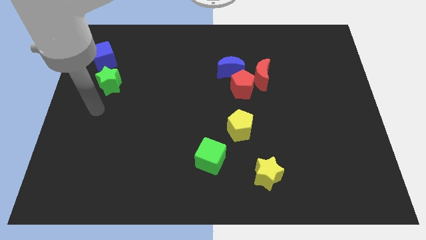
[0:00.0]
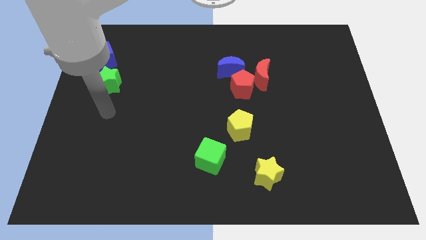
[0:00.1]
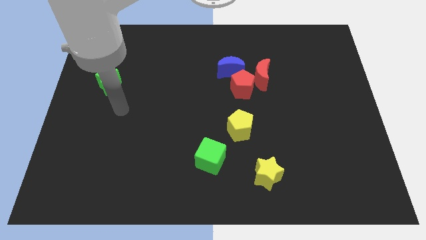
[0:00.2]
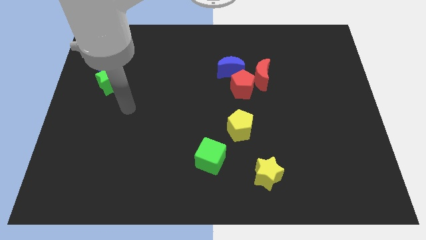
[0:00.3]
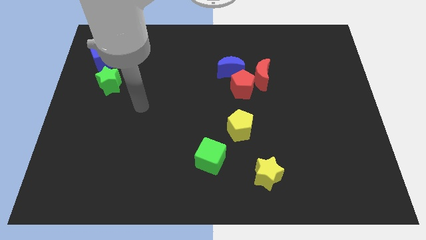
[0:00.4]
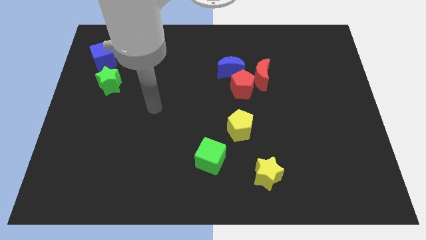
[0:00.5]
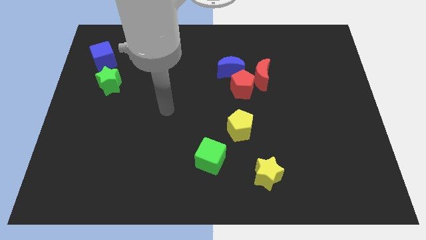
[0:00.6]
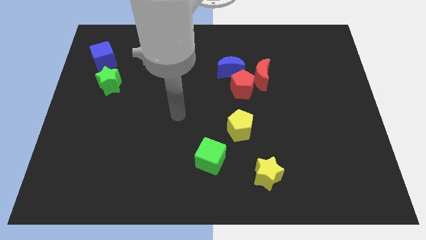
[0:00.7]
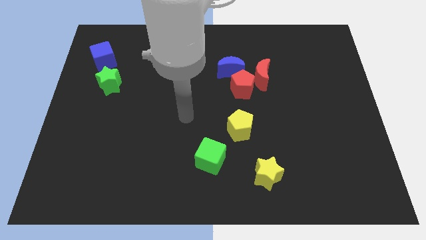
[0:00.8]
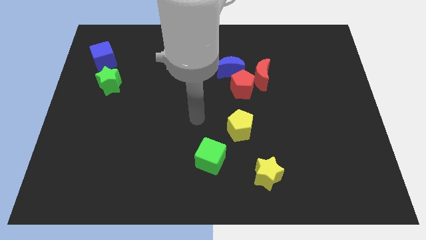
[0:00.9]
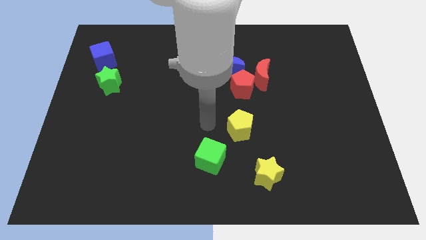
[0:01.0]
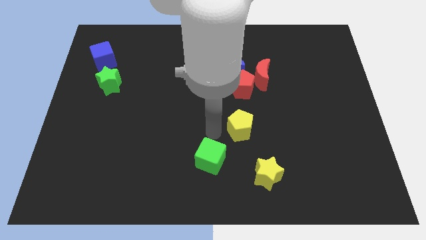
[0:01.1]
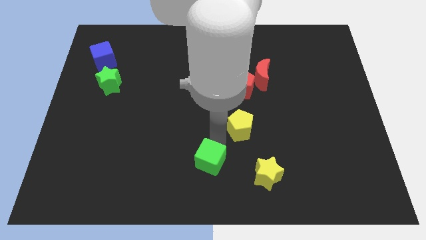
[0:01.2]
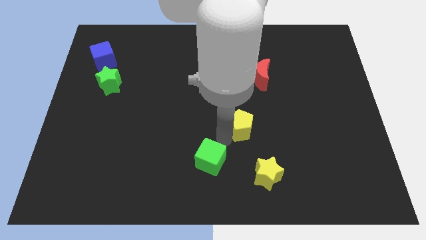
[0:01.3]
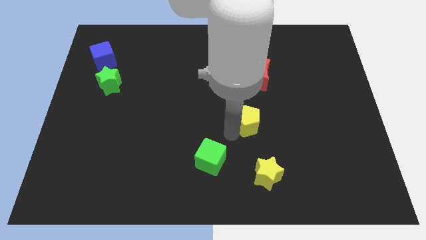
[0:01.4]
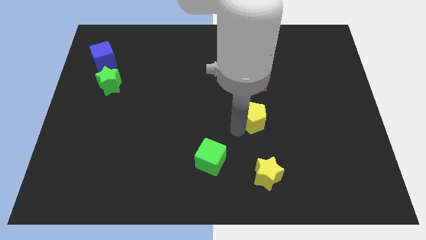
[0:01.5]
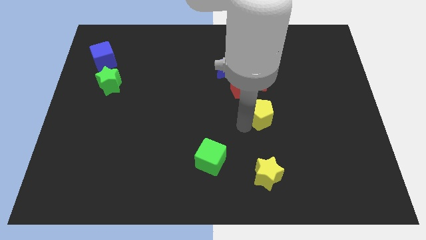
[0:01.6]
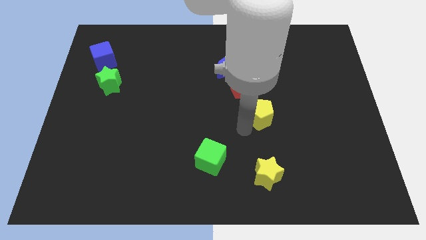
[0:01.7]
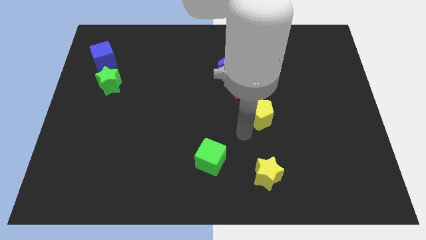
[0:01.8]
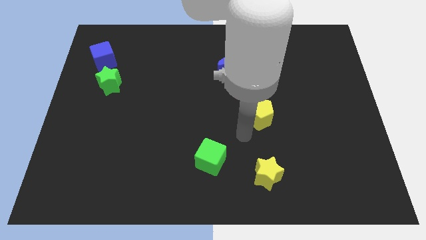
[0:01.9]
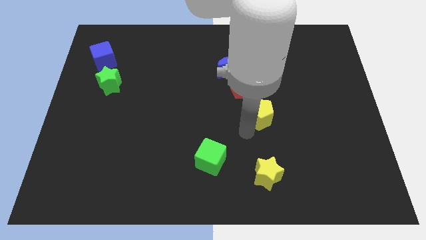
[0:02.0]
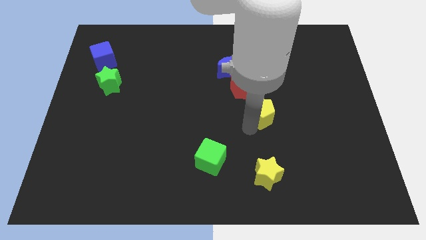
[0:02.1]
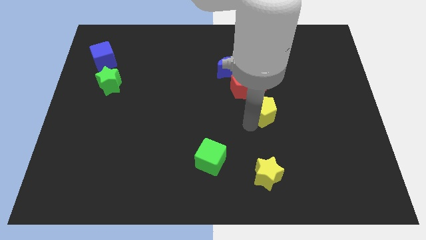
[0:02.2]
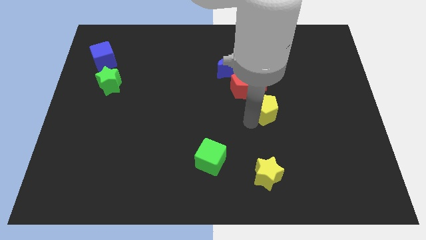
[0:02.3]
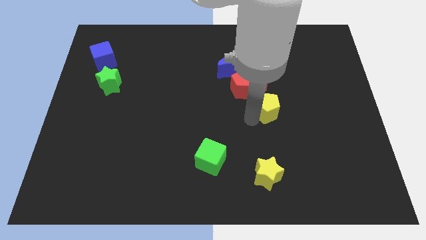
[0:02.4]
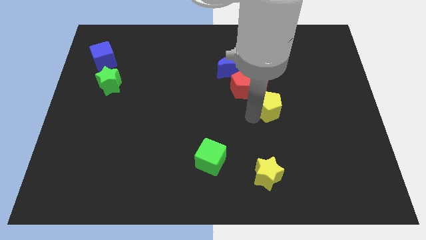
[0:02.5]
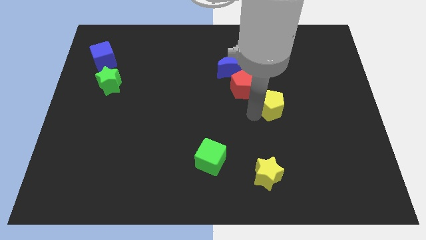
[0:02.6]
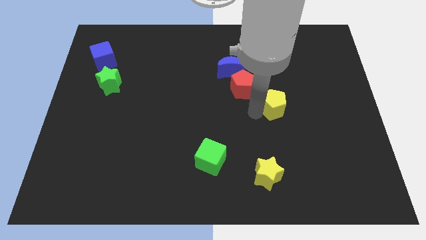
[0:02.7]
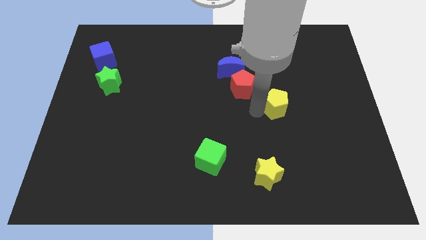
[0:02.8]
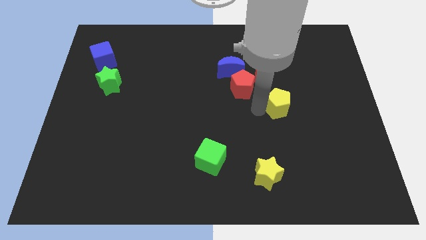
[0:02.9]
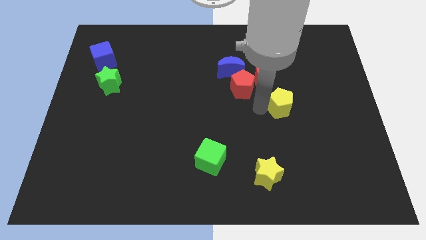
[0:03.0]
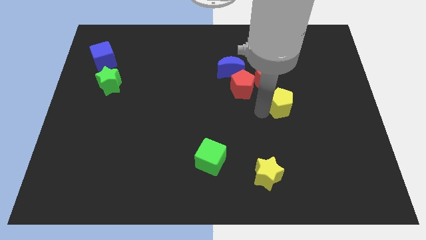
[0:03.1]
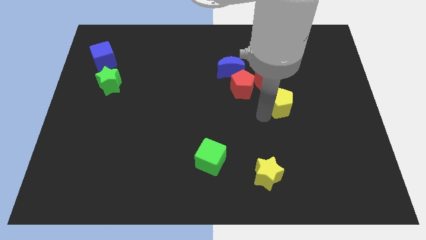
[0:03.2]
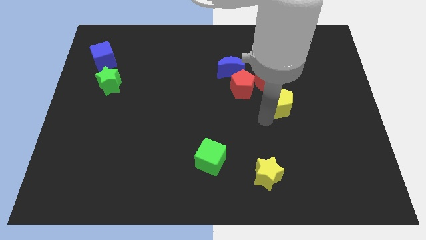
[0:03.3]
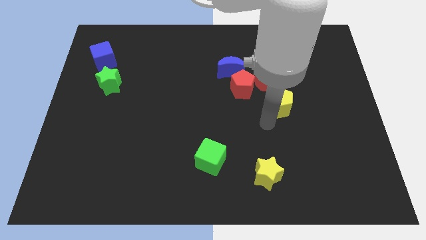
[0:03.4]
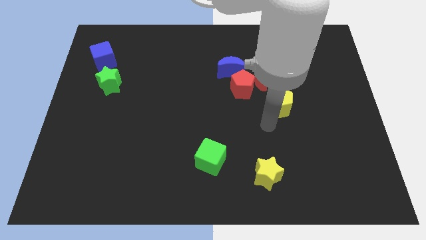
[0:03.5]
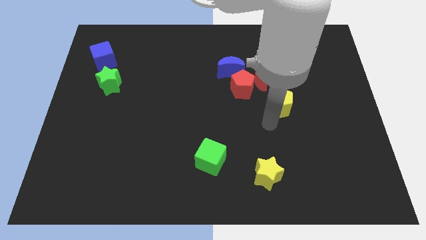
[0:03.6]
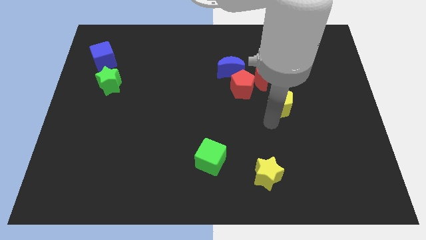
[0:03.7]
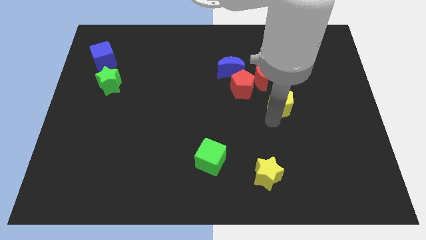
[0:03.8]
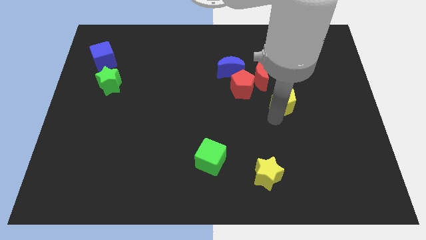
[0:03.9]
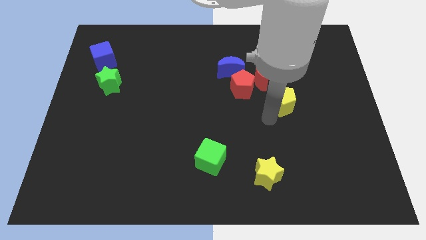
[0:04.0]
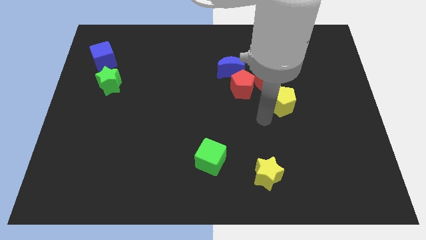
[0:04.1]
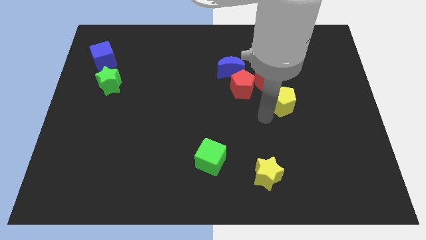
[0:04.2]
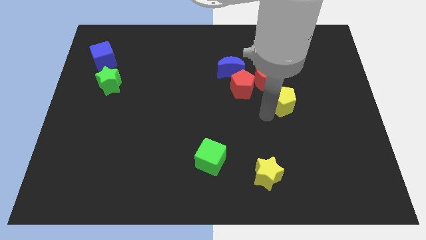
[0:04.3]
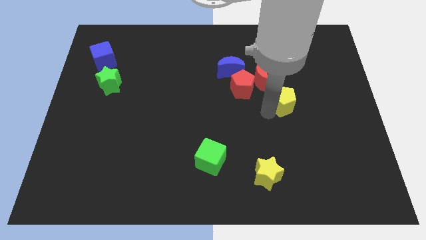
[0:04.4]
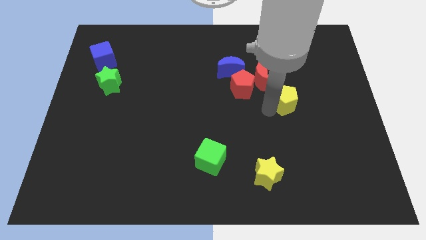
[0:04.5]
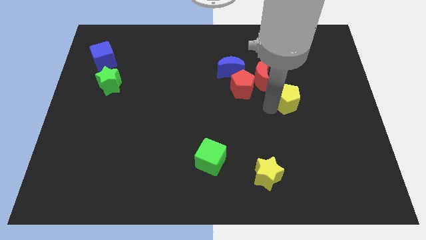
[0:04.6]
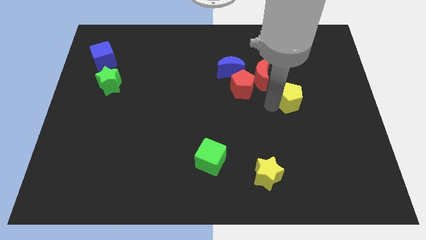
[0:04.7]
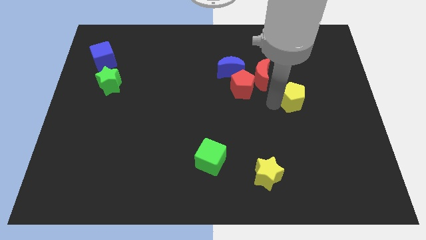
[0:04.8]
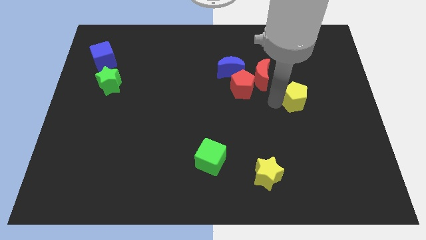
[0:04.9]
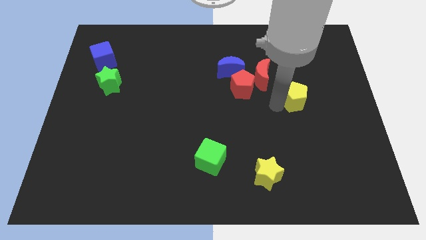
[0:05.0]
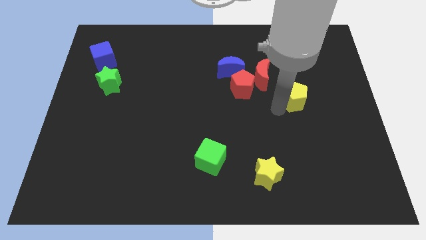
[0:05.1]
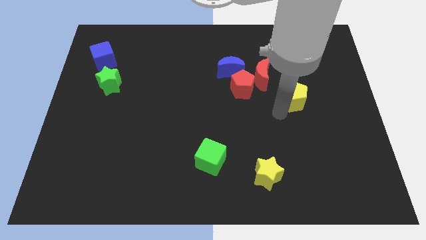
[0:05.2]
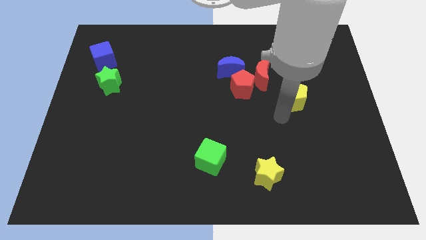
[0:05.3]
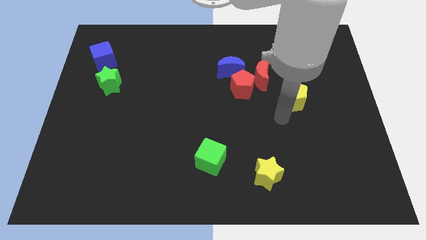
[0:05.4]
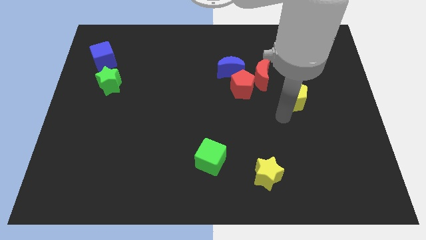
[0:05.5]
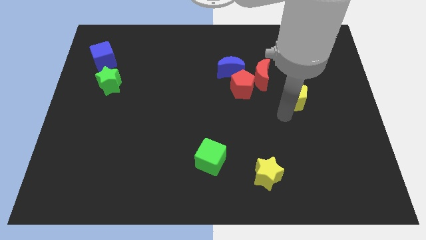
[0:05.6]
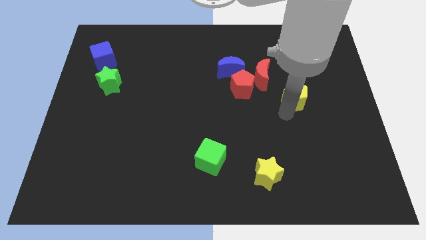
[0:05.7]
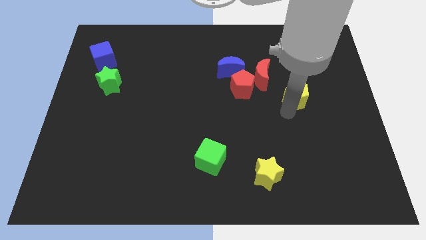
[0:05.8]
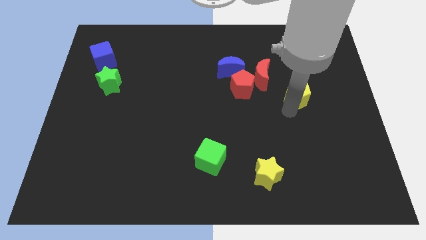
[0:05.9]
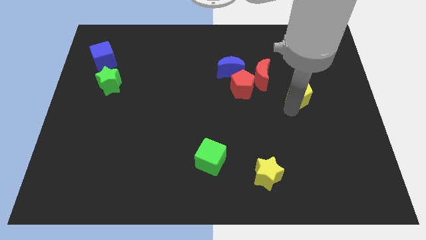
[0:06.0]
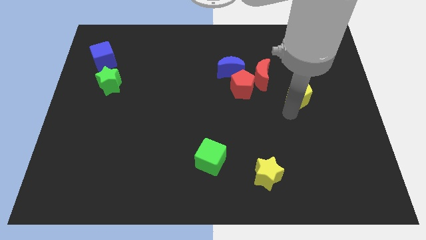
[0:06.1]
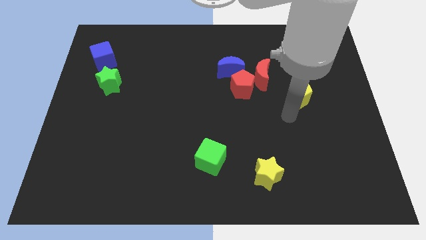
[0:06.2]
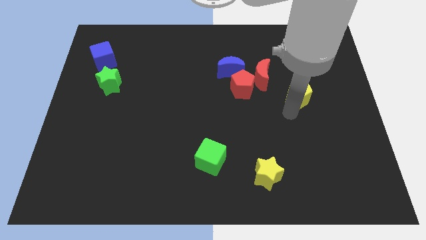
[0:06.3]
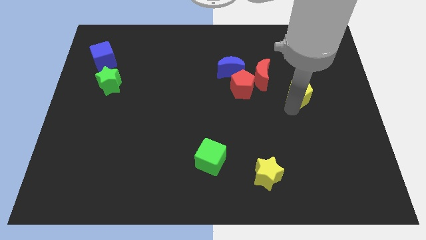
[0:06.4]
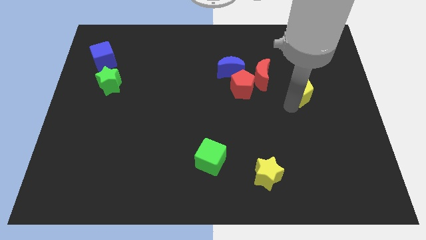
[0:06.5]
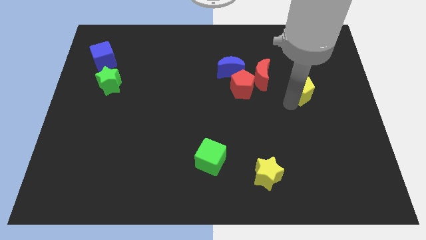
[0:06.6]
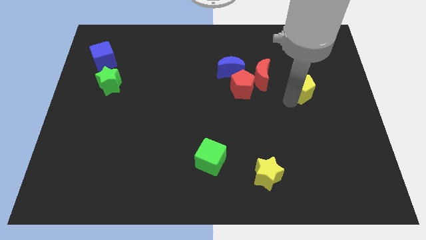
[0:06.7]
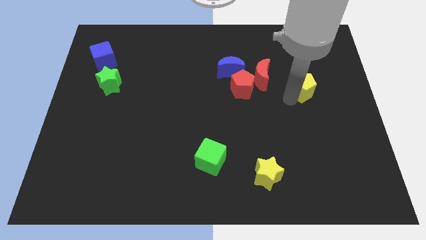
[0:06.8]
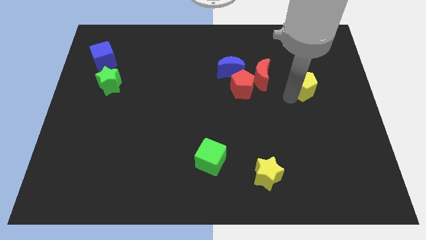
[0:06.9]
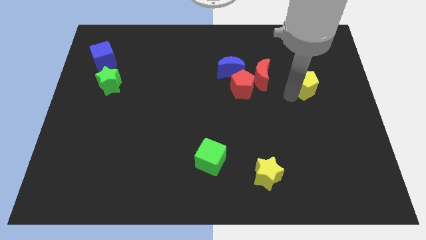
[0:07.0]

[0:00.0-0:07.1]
move the yellow pentagon diagonally up and right

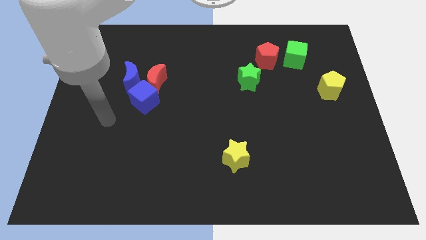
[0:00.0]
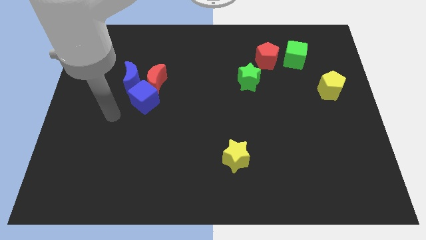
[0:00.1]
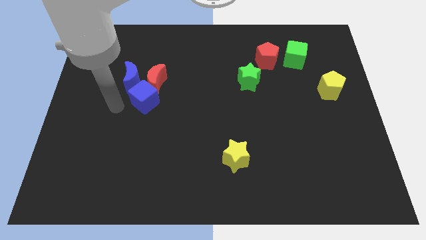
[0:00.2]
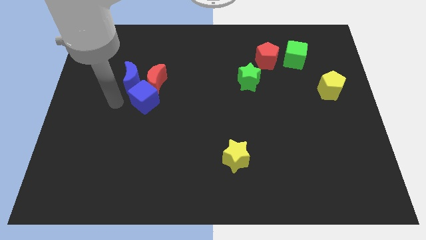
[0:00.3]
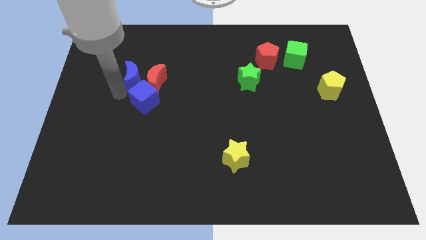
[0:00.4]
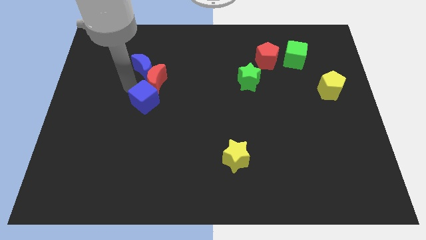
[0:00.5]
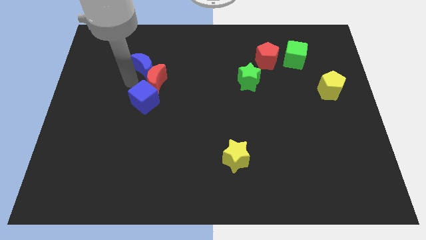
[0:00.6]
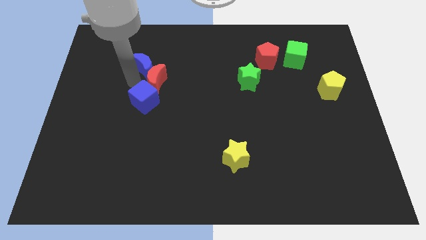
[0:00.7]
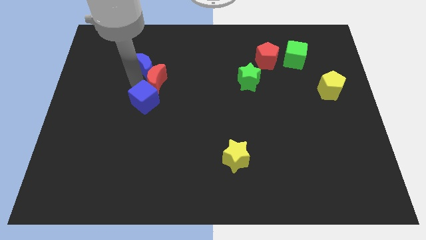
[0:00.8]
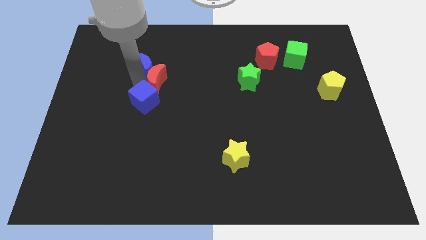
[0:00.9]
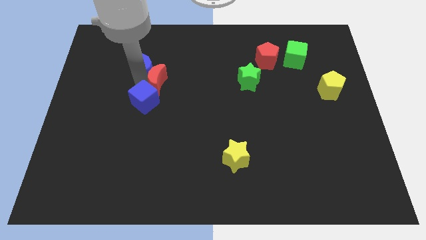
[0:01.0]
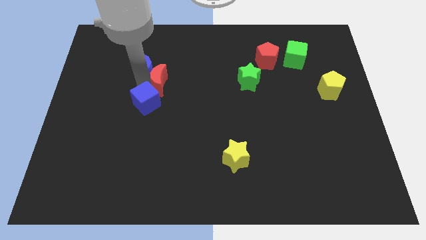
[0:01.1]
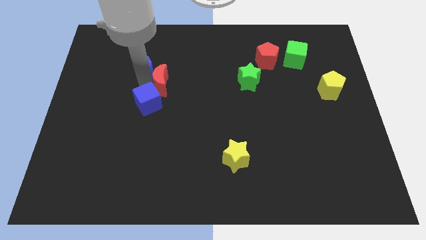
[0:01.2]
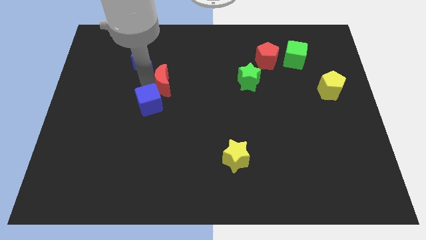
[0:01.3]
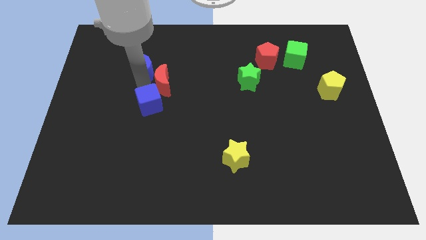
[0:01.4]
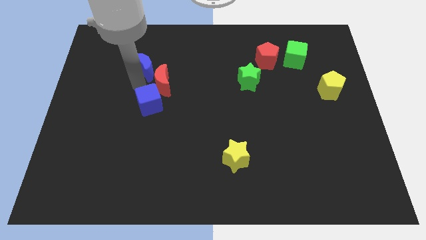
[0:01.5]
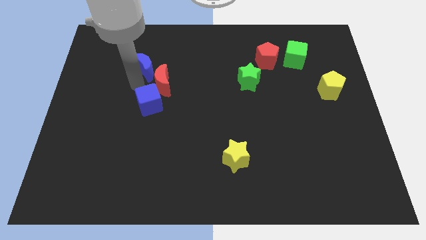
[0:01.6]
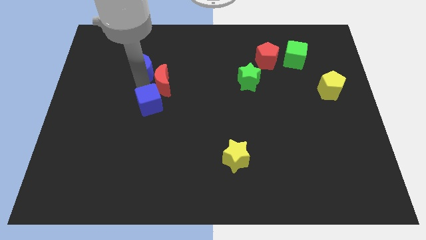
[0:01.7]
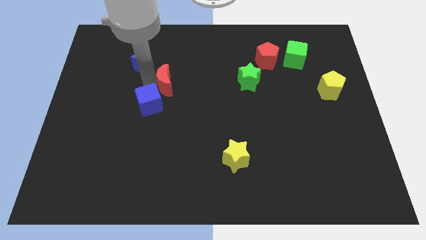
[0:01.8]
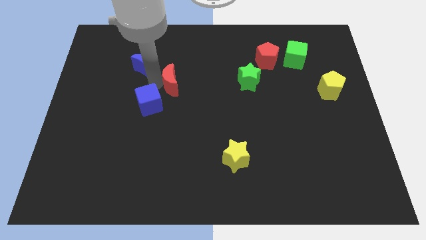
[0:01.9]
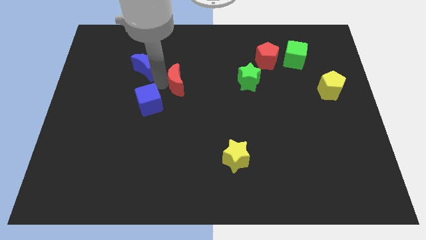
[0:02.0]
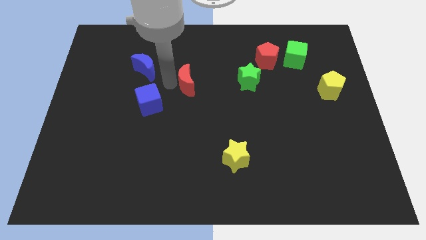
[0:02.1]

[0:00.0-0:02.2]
move the red moon right a little
